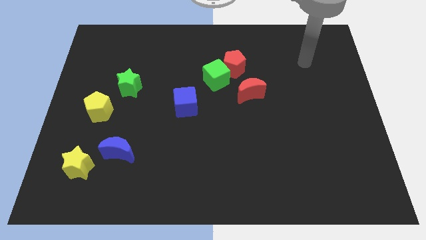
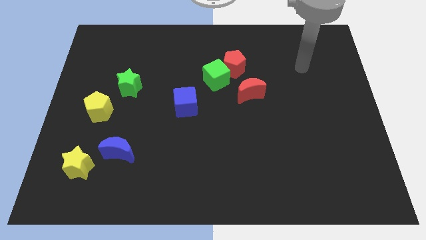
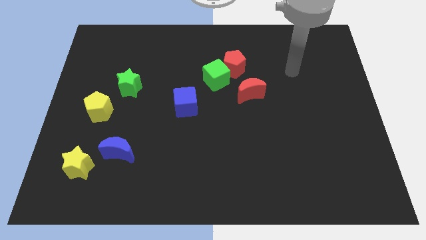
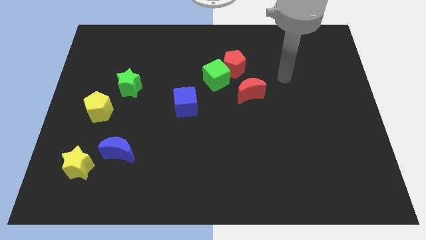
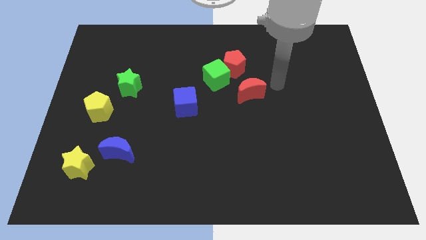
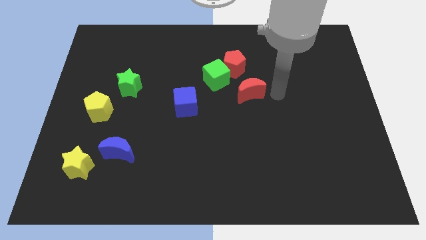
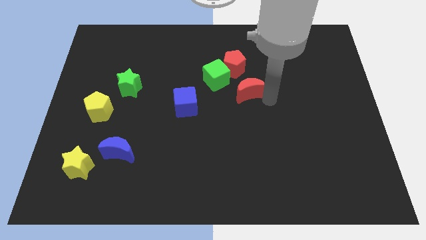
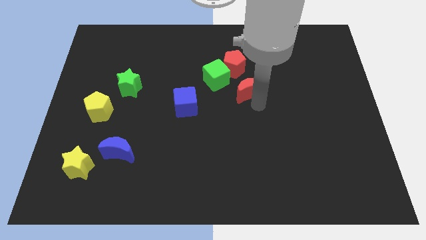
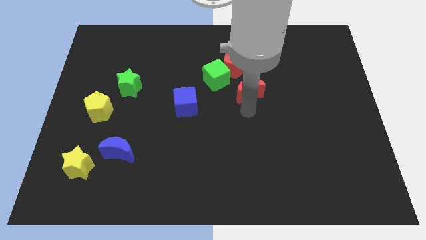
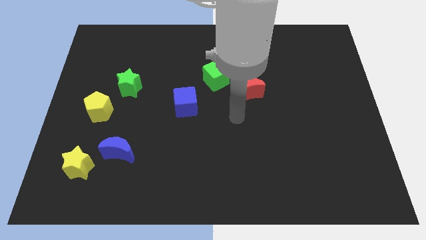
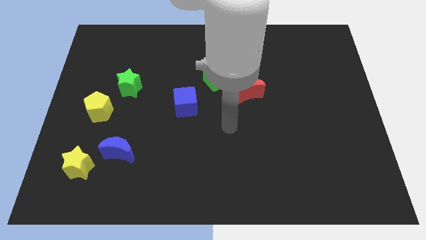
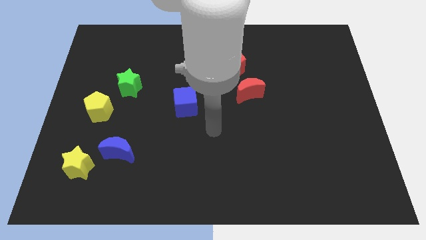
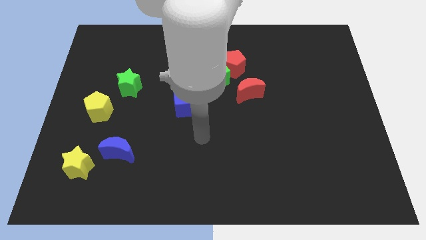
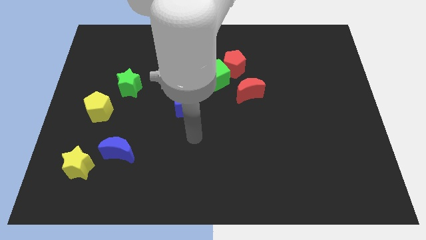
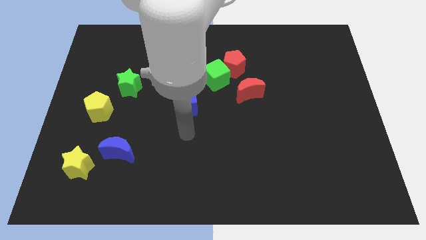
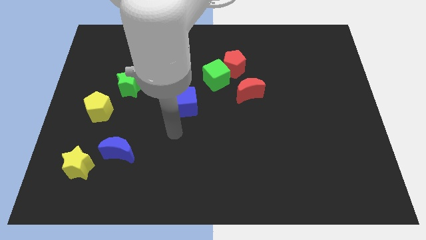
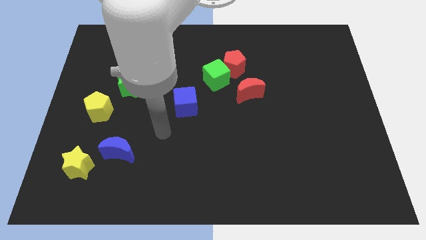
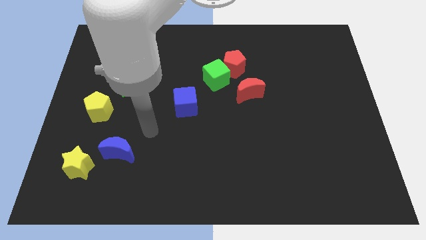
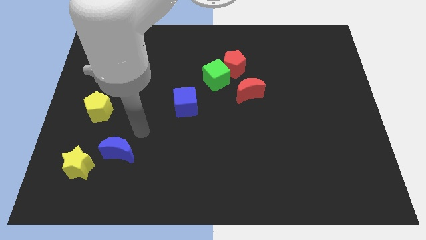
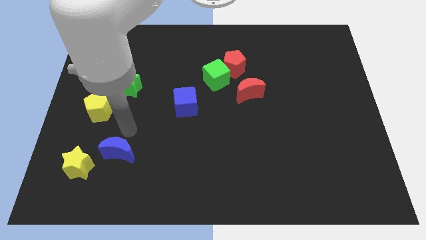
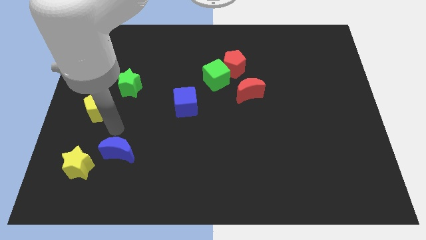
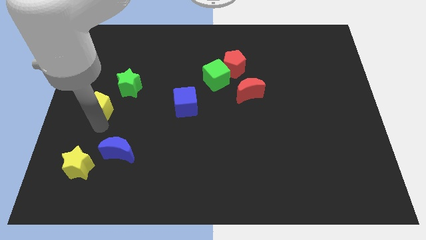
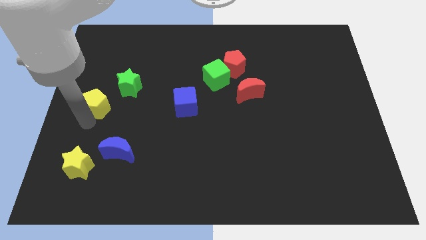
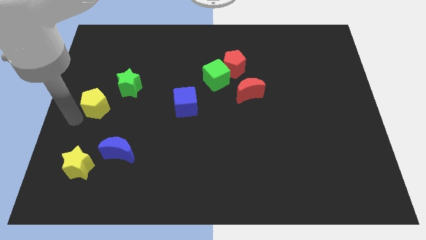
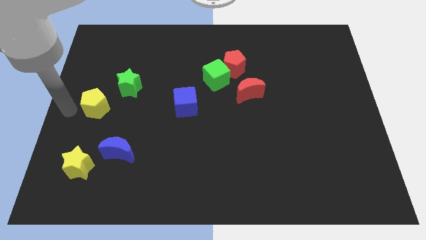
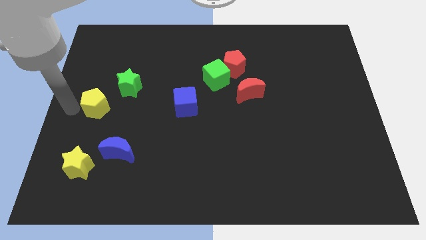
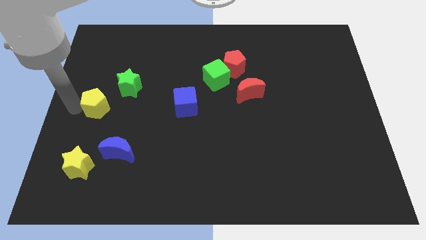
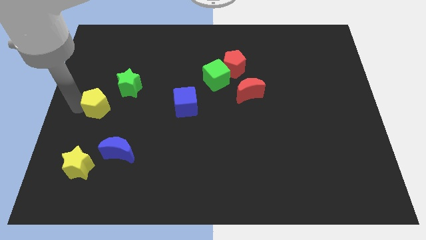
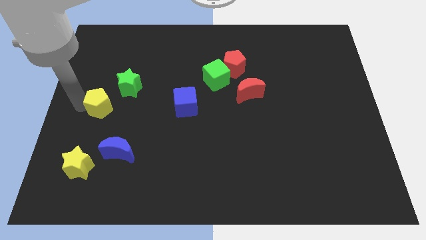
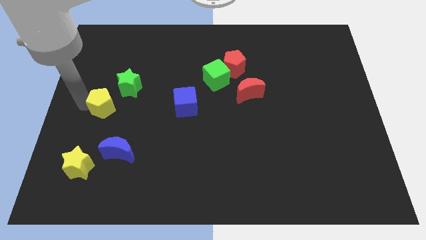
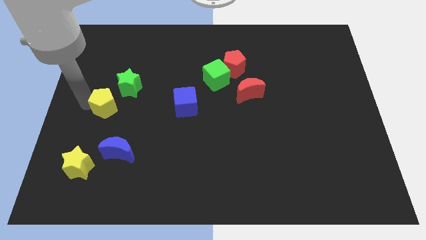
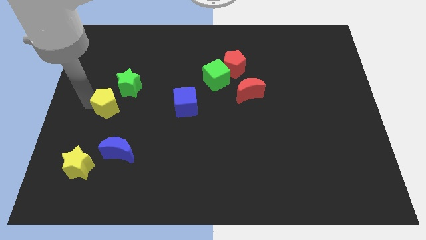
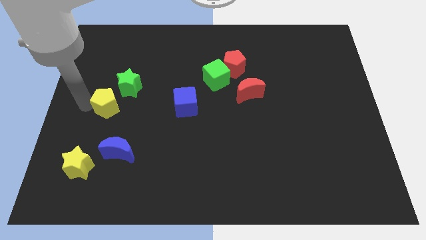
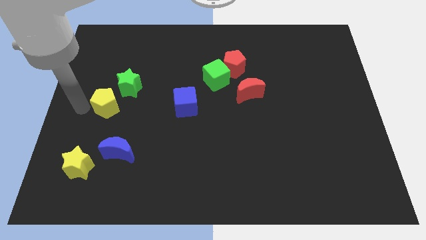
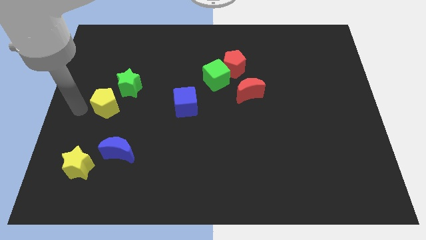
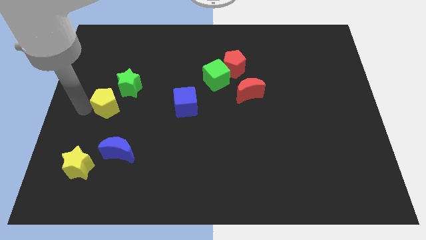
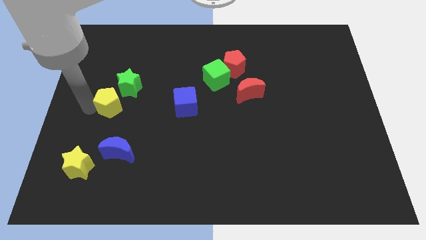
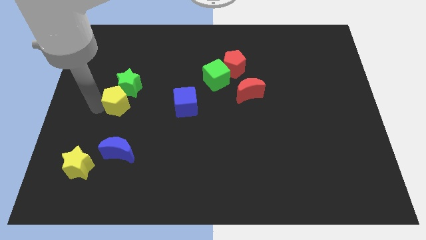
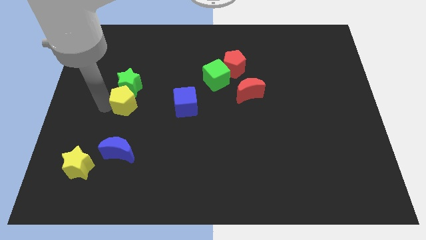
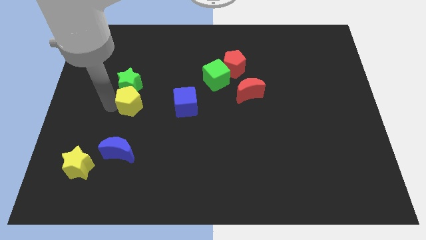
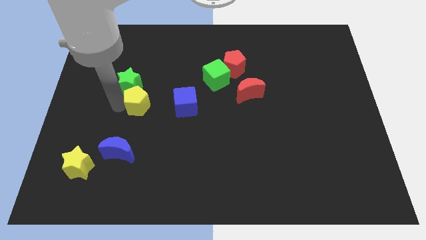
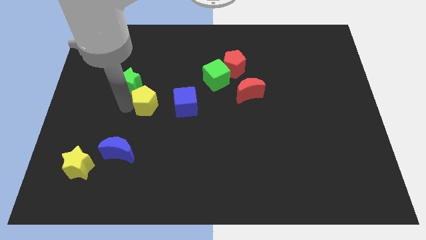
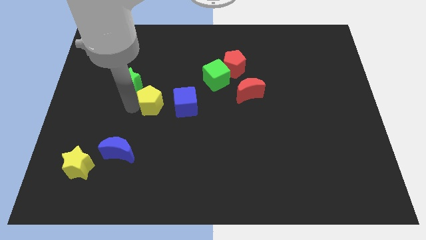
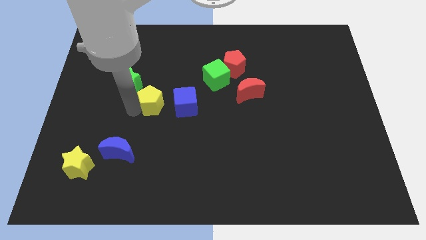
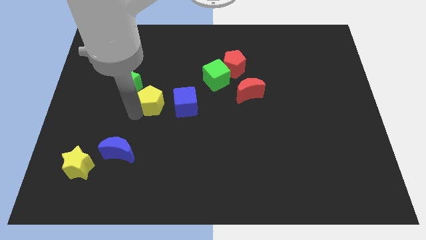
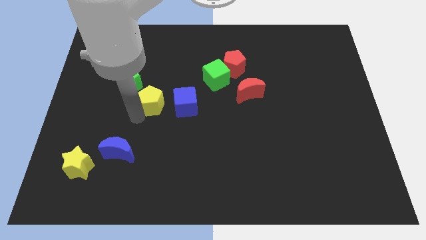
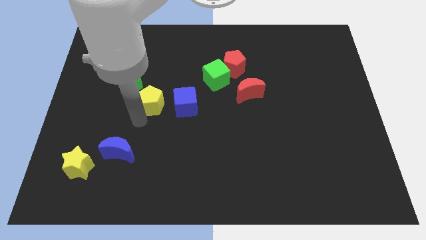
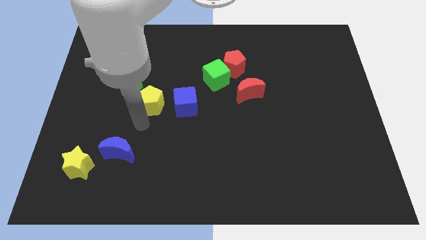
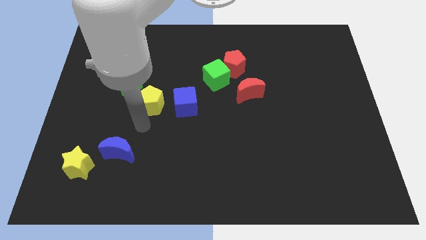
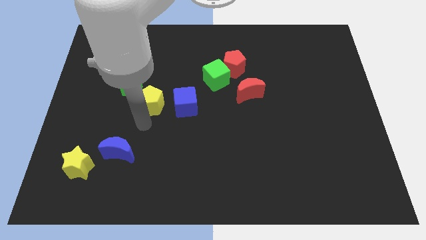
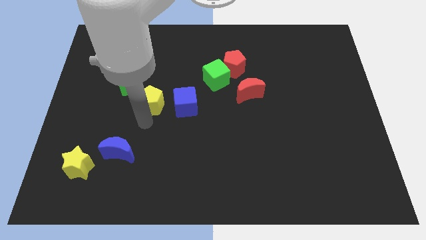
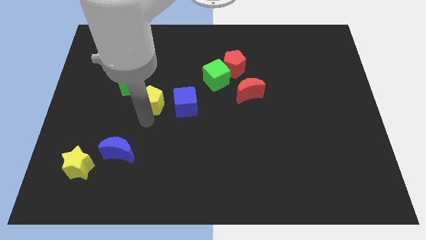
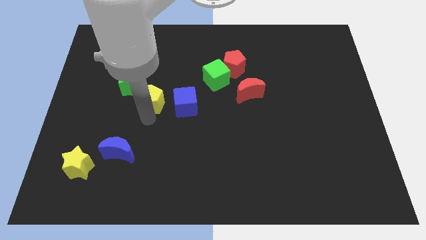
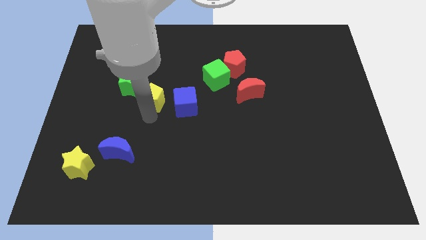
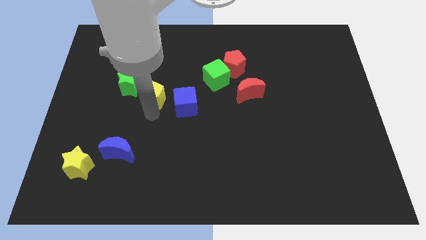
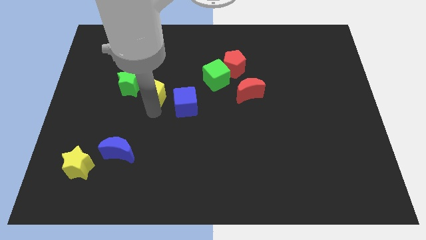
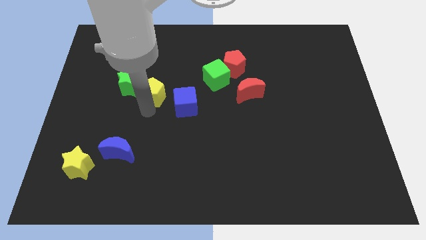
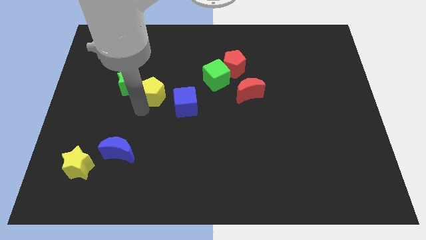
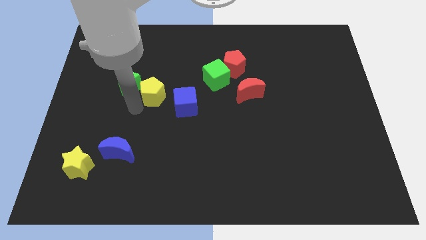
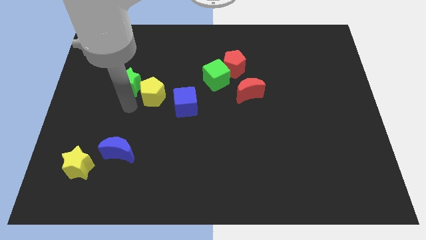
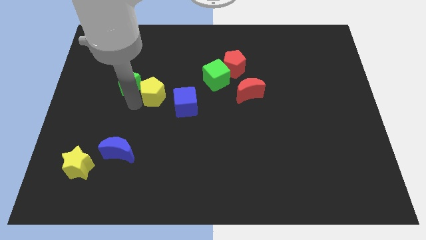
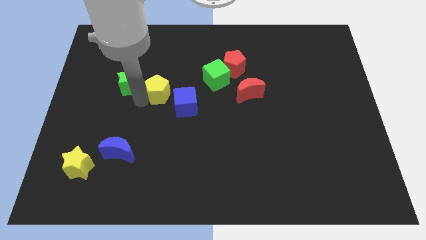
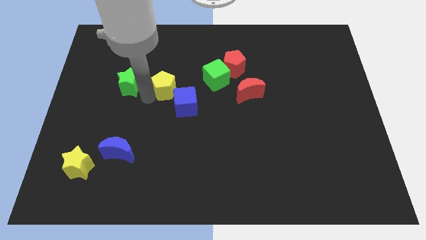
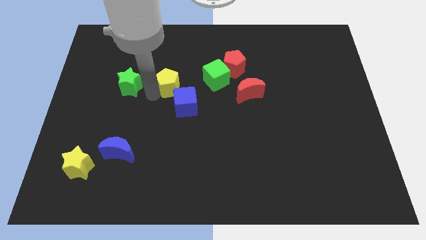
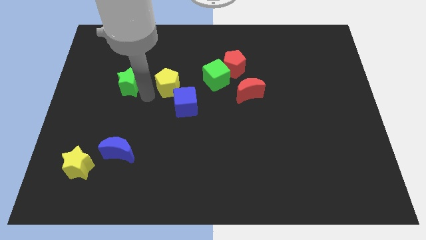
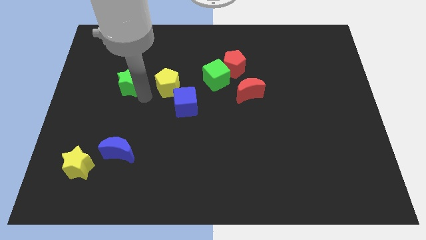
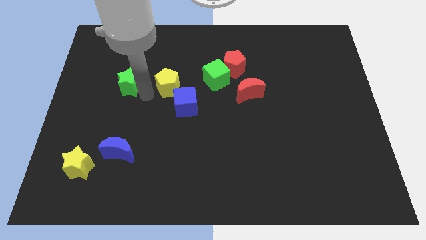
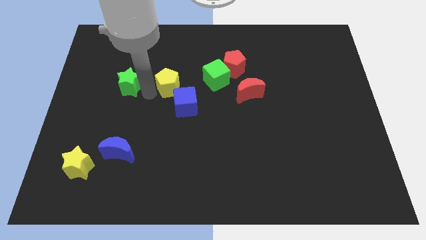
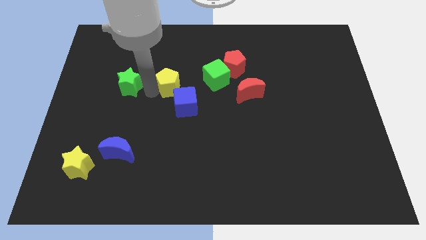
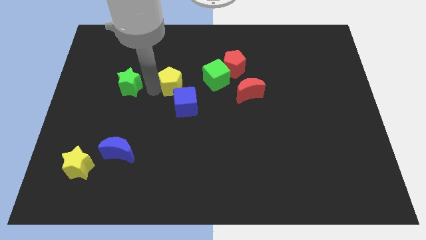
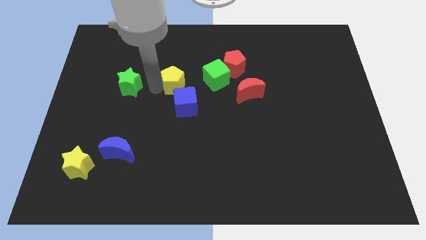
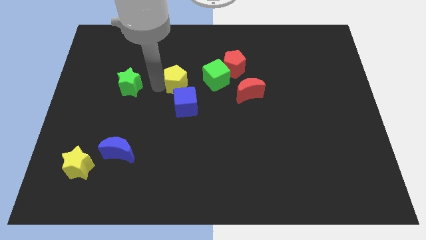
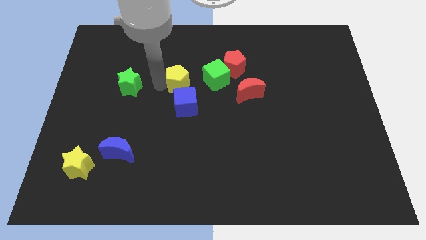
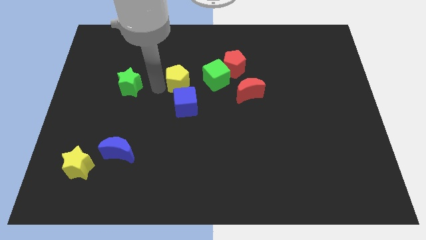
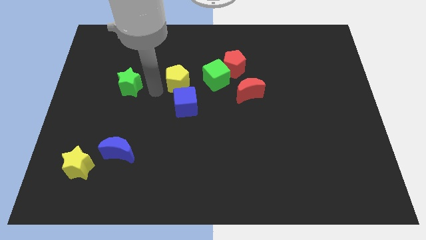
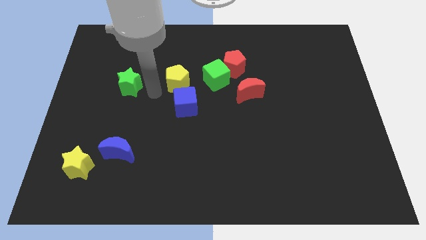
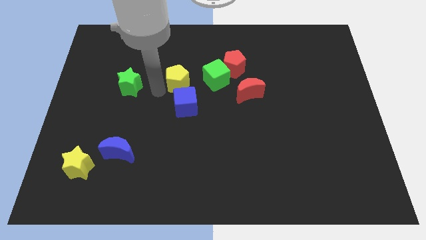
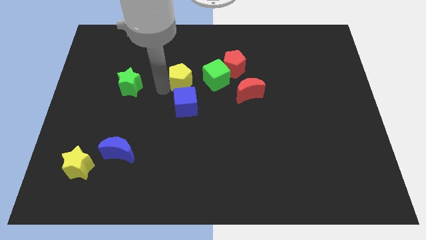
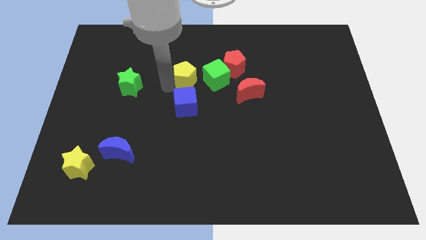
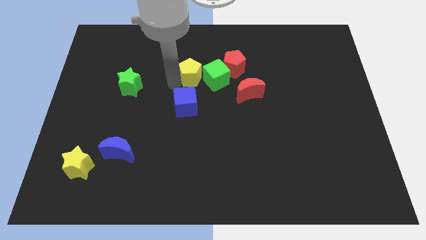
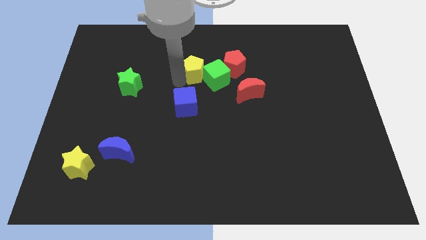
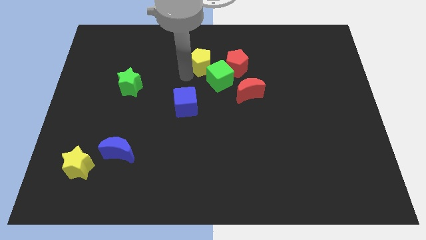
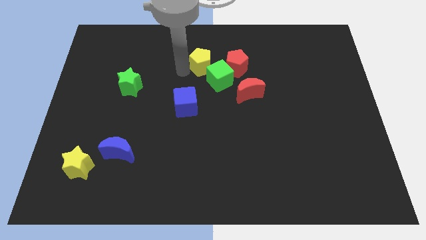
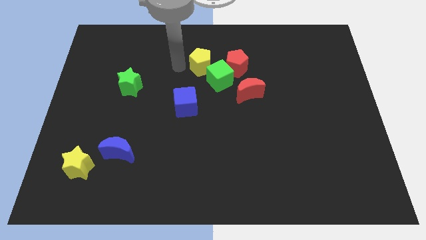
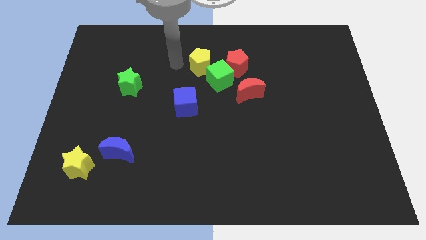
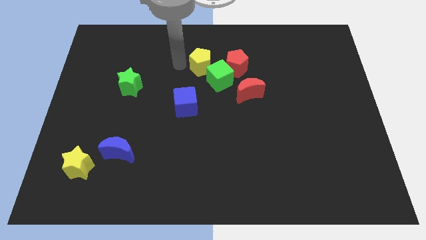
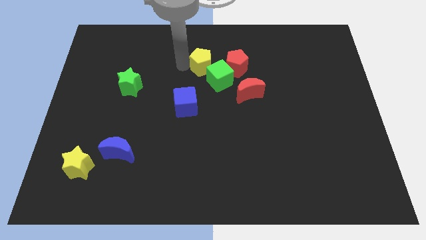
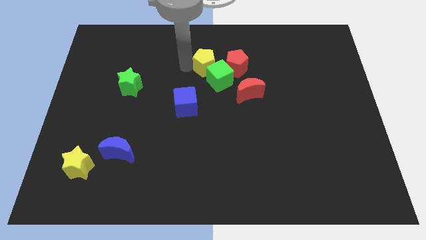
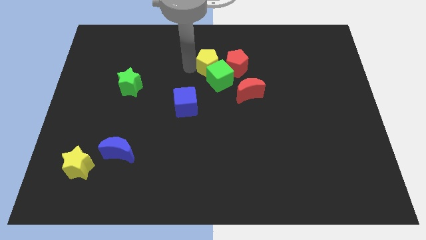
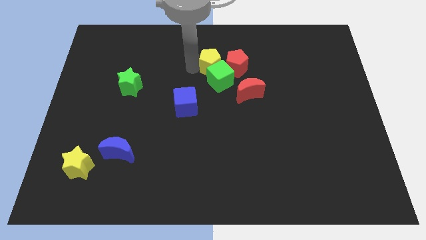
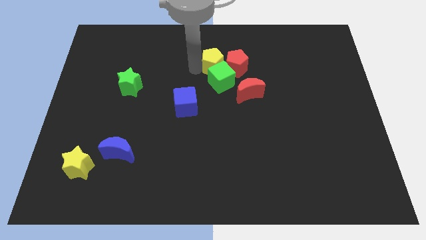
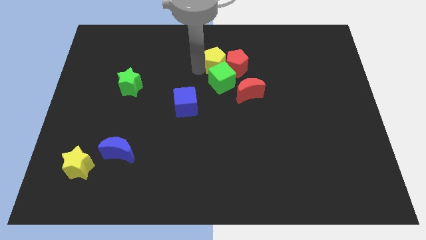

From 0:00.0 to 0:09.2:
move the yellow pentagon to the red pentagon
